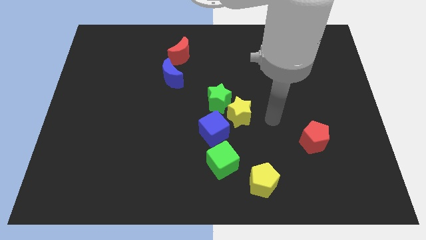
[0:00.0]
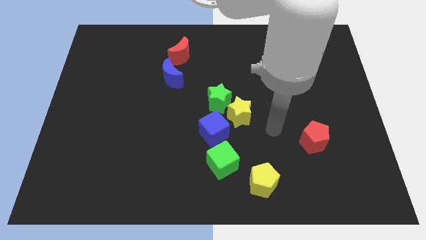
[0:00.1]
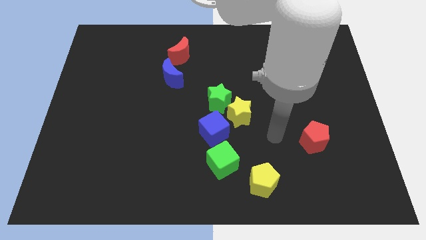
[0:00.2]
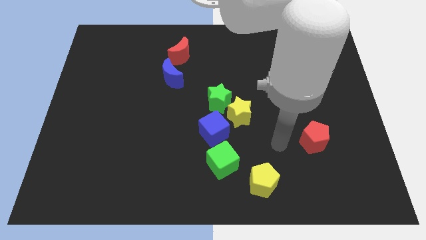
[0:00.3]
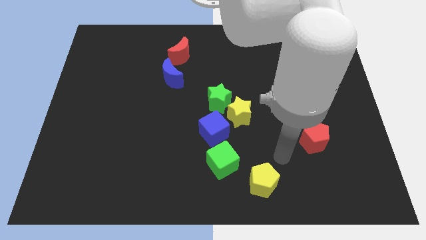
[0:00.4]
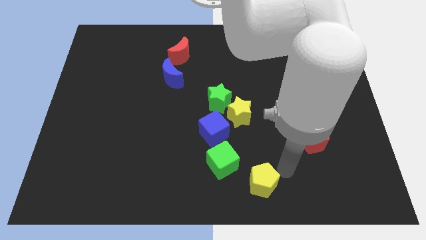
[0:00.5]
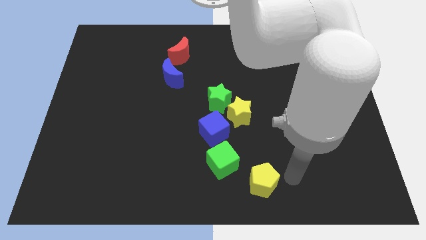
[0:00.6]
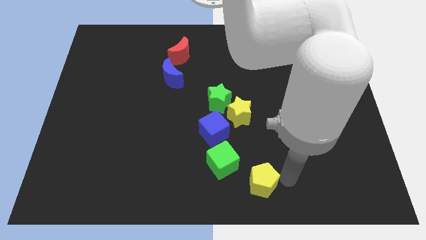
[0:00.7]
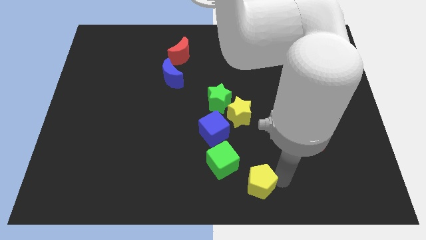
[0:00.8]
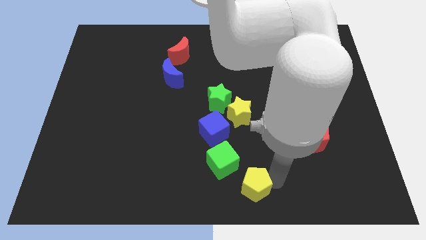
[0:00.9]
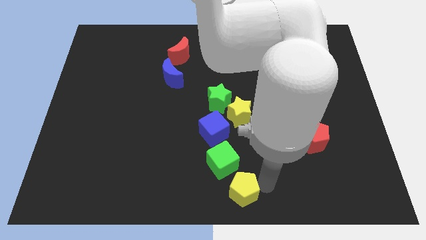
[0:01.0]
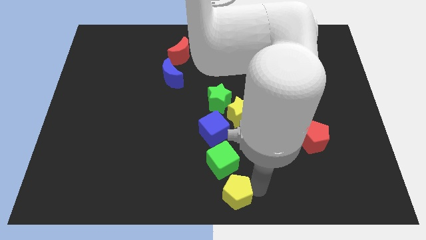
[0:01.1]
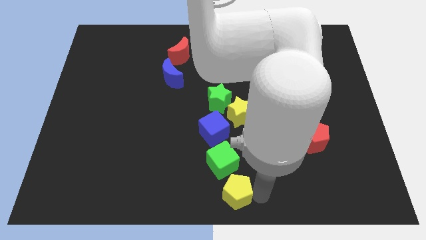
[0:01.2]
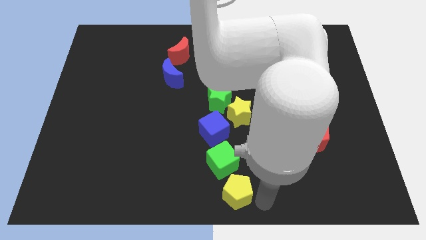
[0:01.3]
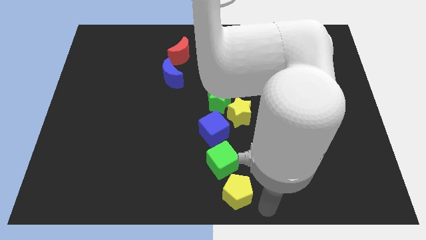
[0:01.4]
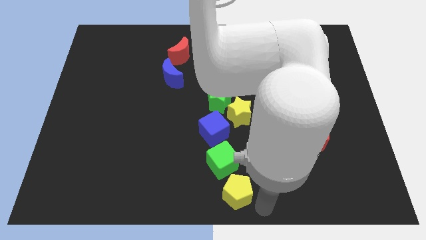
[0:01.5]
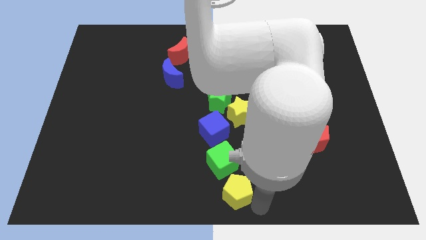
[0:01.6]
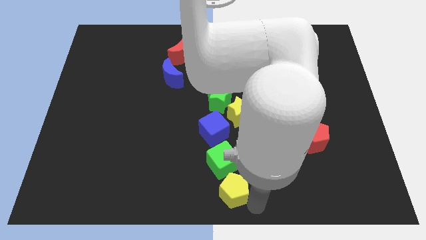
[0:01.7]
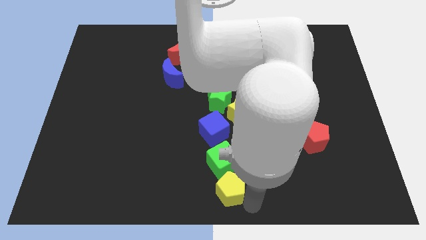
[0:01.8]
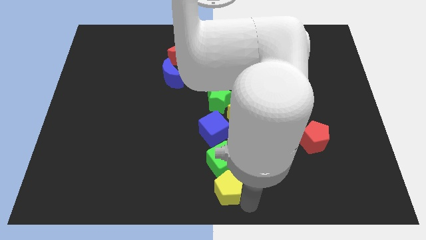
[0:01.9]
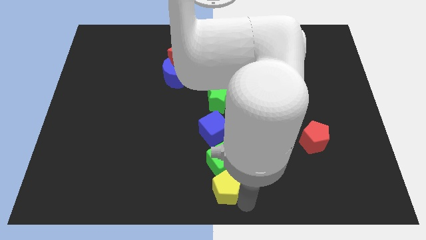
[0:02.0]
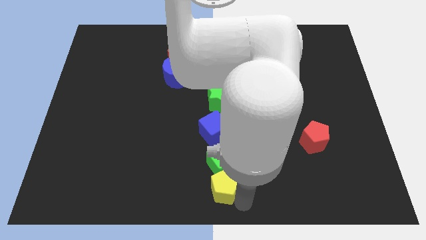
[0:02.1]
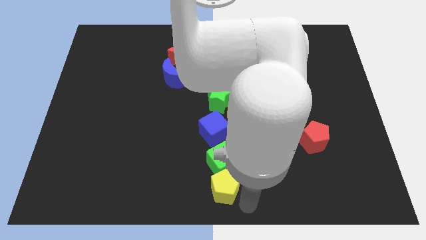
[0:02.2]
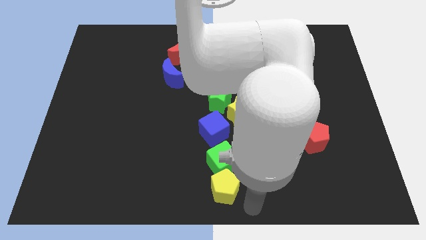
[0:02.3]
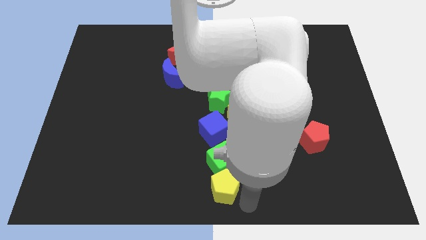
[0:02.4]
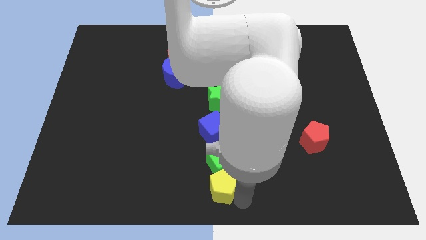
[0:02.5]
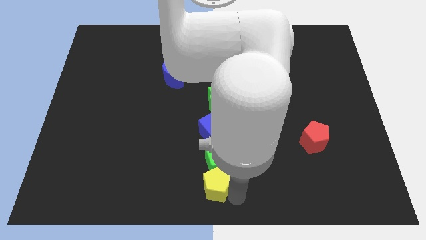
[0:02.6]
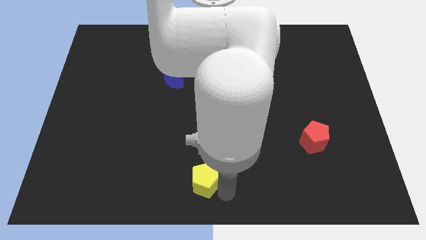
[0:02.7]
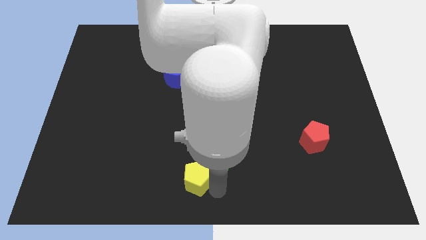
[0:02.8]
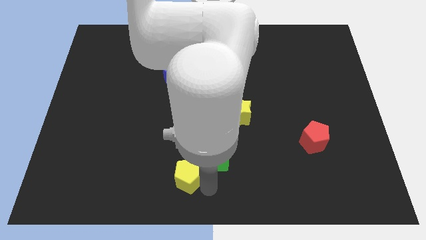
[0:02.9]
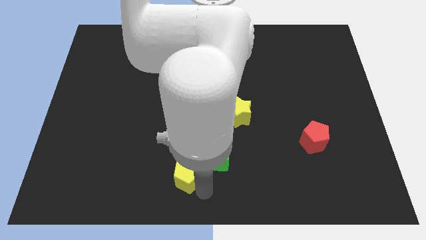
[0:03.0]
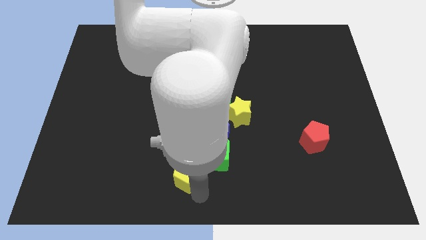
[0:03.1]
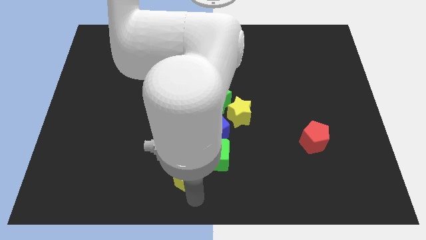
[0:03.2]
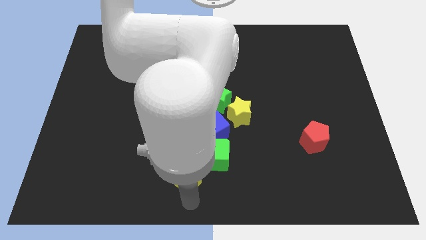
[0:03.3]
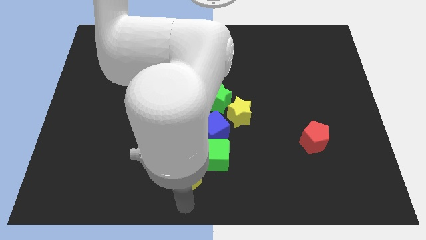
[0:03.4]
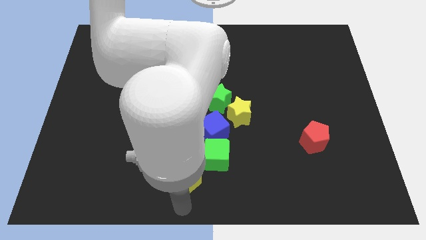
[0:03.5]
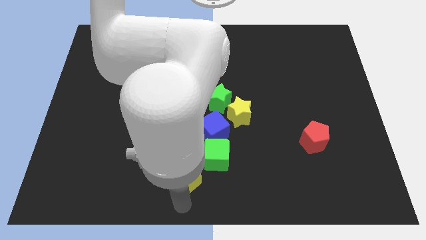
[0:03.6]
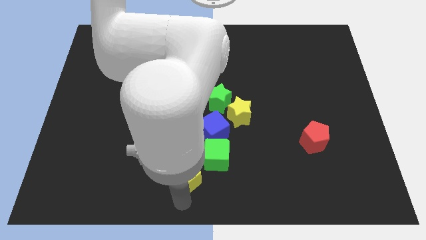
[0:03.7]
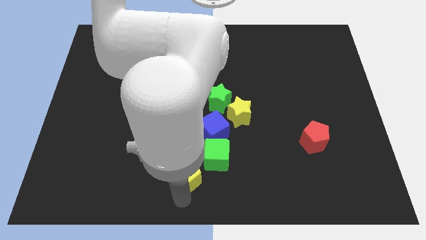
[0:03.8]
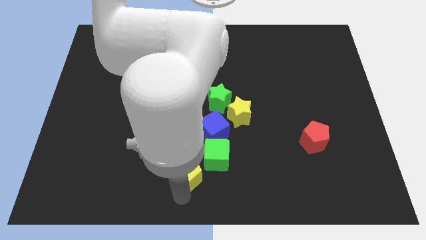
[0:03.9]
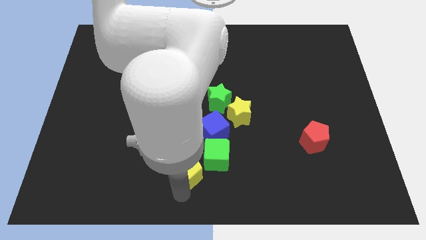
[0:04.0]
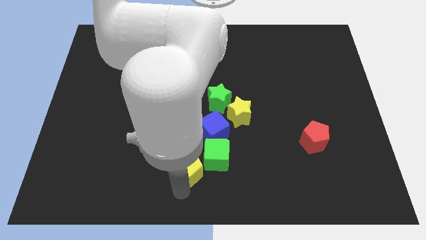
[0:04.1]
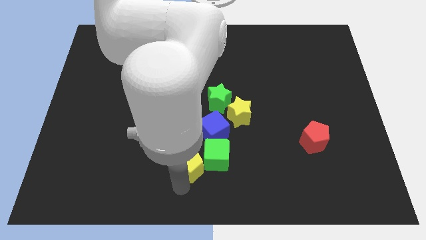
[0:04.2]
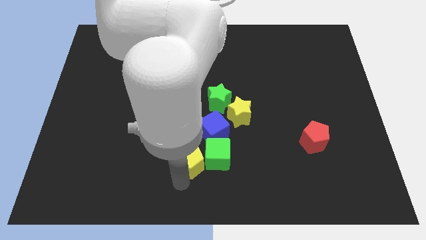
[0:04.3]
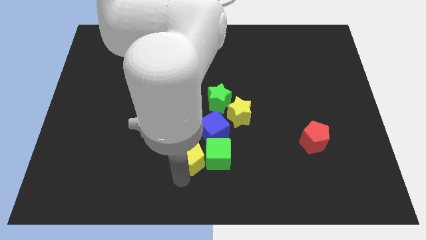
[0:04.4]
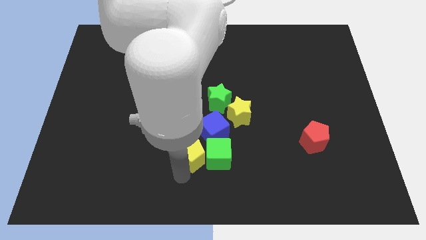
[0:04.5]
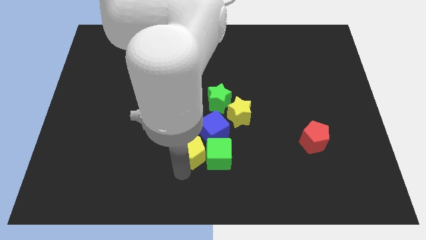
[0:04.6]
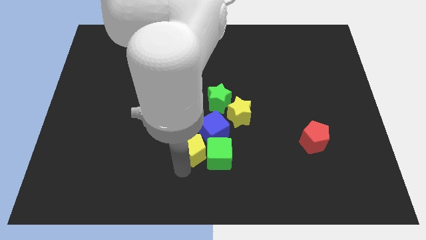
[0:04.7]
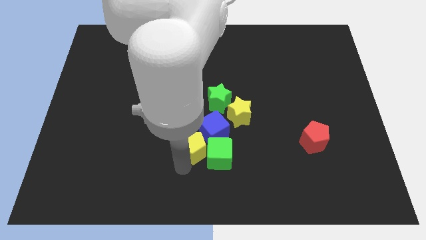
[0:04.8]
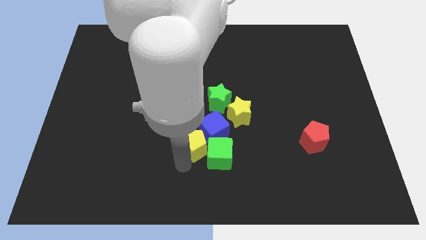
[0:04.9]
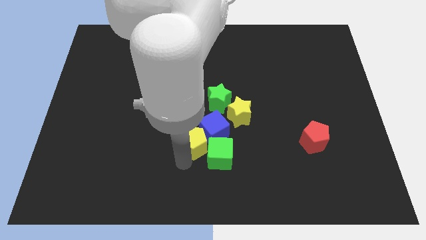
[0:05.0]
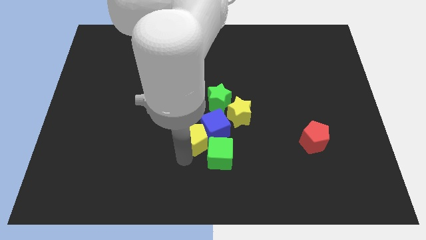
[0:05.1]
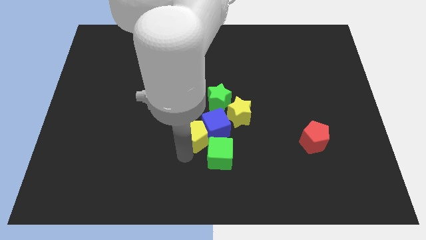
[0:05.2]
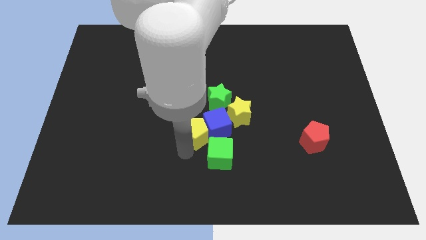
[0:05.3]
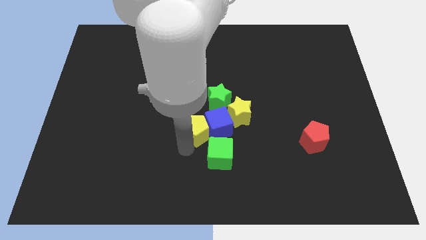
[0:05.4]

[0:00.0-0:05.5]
put the yellow pentagon to the left of the yellow star

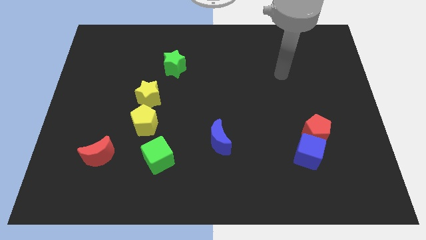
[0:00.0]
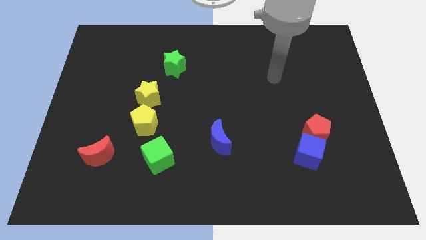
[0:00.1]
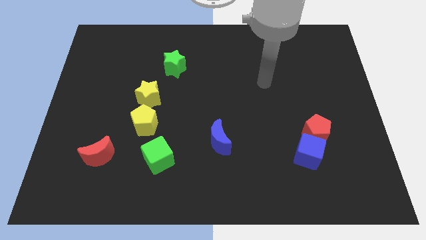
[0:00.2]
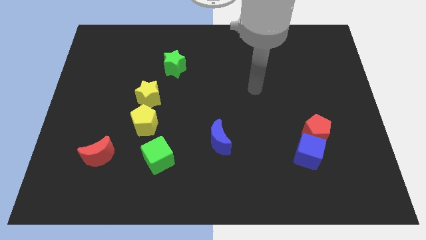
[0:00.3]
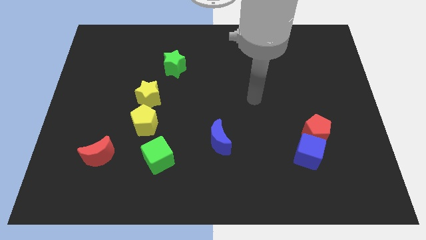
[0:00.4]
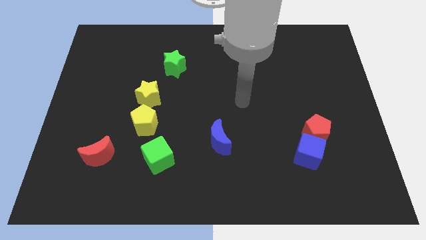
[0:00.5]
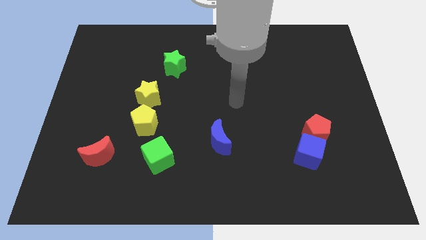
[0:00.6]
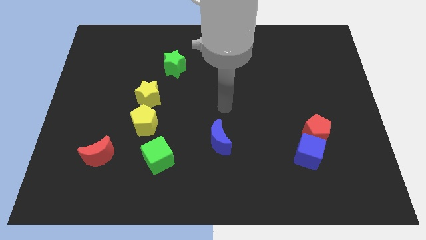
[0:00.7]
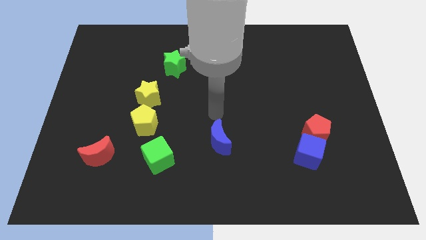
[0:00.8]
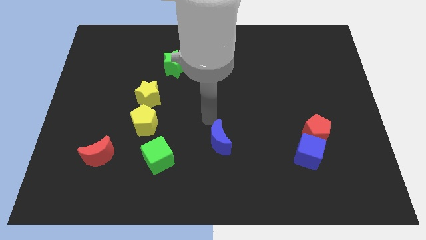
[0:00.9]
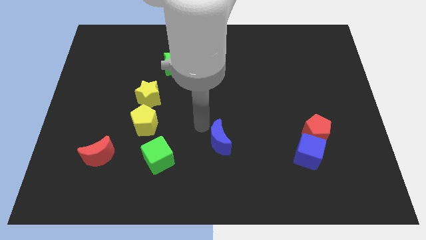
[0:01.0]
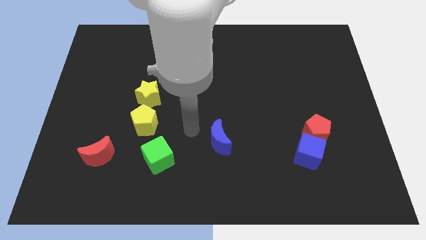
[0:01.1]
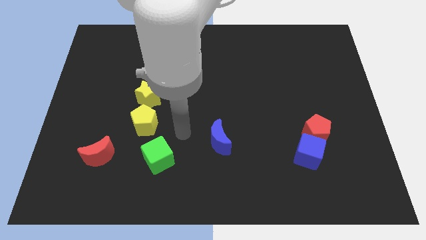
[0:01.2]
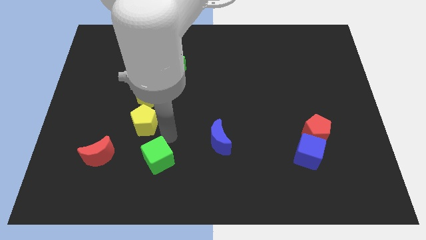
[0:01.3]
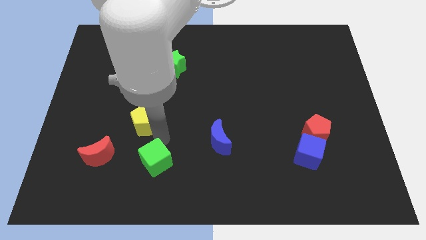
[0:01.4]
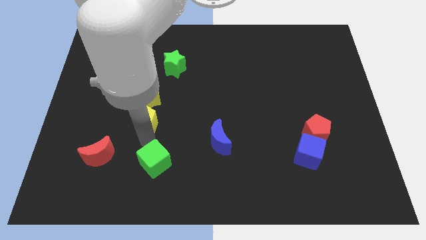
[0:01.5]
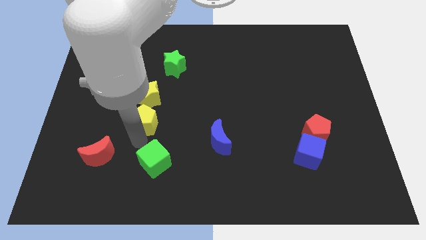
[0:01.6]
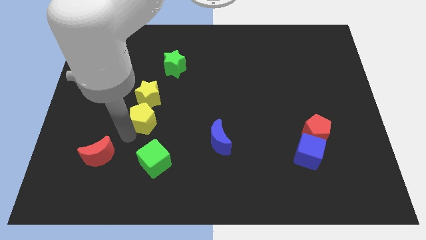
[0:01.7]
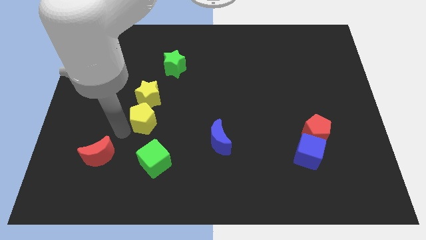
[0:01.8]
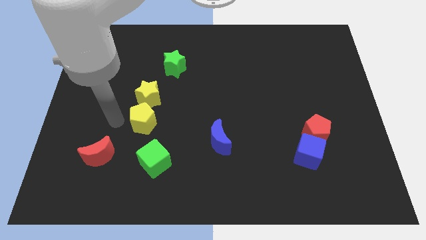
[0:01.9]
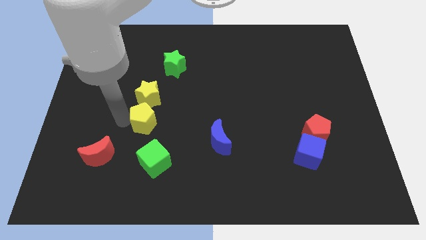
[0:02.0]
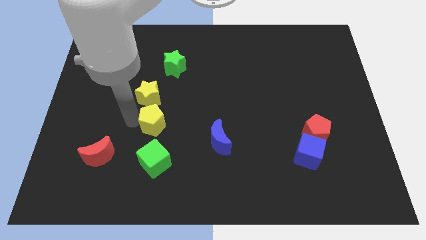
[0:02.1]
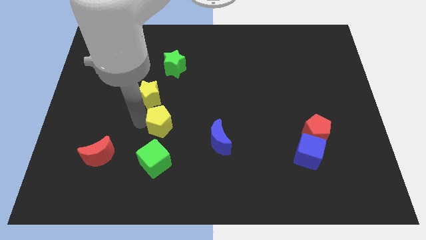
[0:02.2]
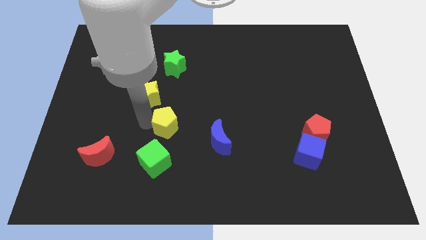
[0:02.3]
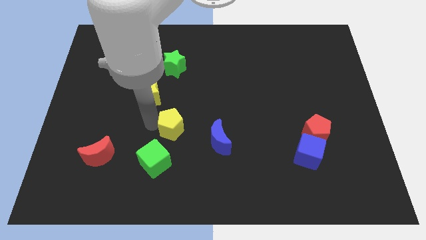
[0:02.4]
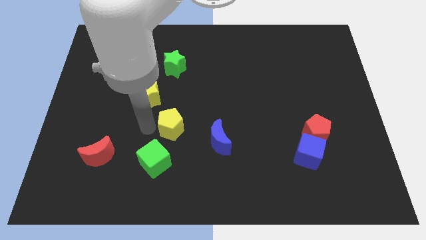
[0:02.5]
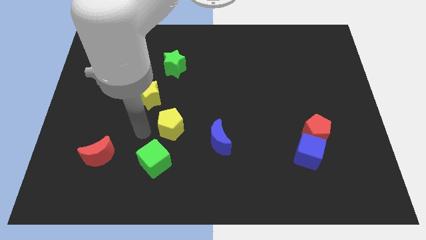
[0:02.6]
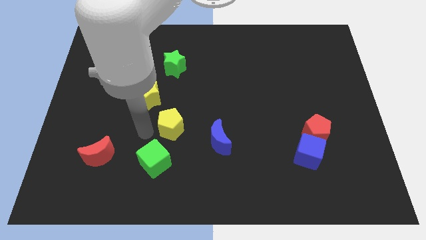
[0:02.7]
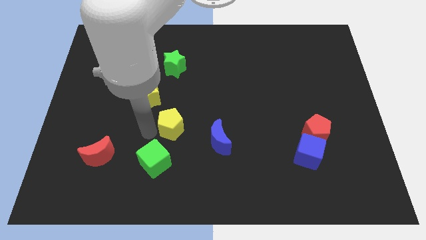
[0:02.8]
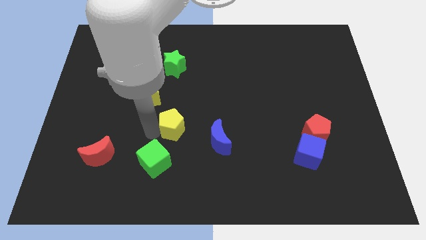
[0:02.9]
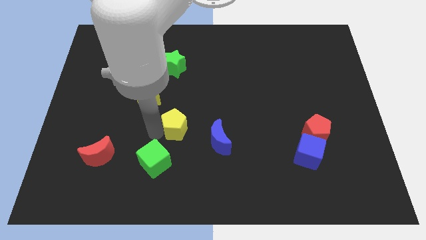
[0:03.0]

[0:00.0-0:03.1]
push the yellow pentagon to the top left side of the blue moon
